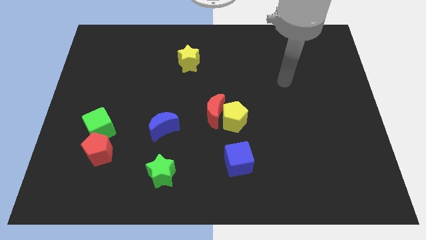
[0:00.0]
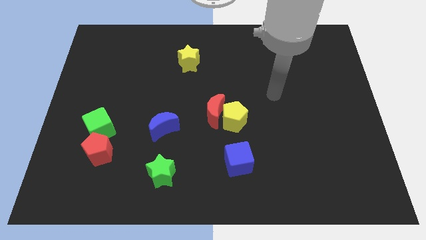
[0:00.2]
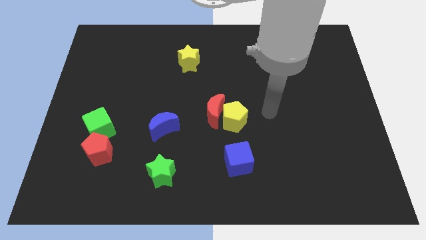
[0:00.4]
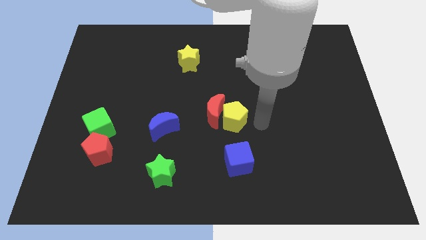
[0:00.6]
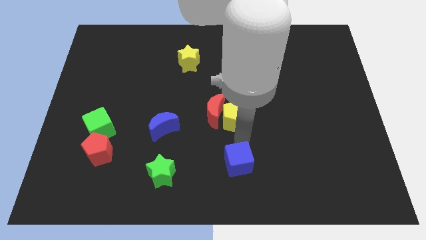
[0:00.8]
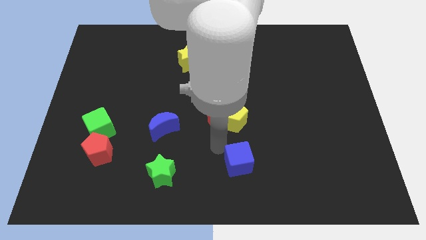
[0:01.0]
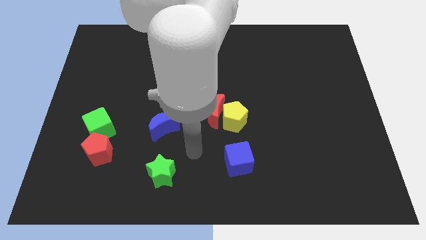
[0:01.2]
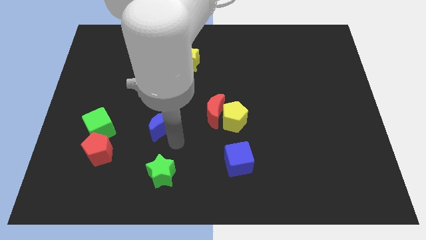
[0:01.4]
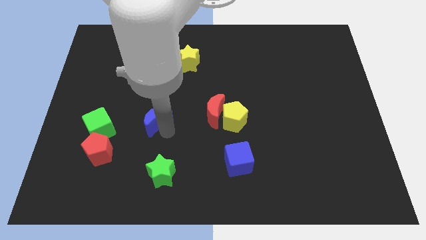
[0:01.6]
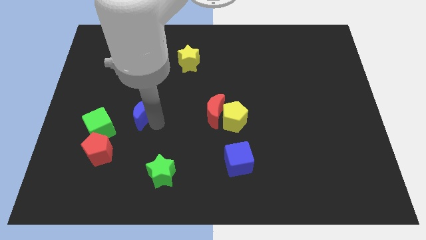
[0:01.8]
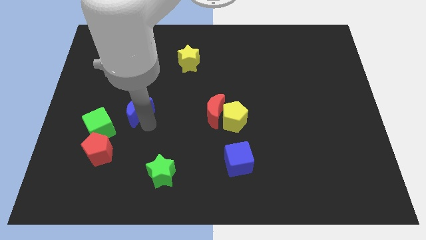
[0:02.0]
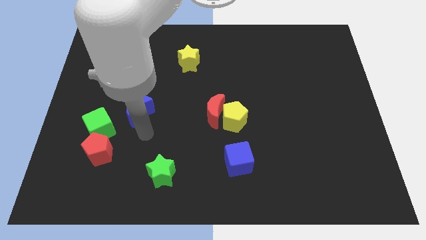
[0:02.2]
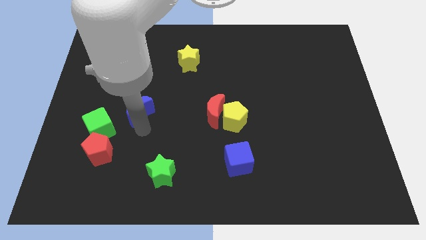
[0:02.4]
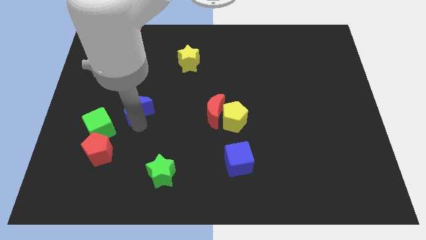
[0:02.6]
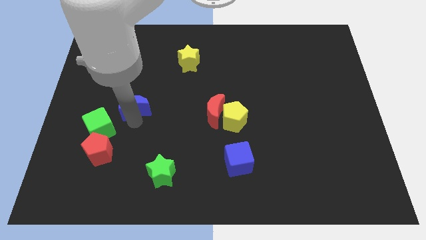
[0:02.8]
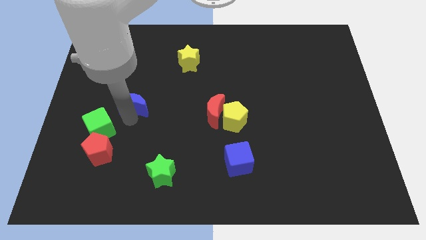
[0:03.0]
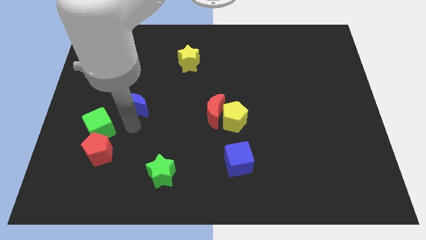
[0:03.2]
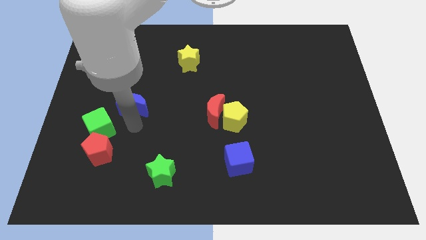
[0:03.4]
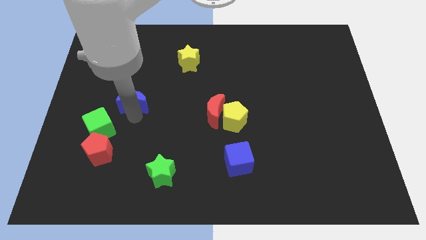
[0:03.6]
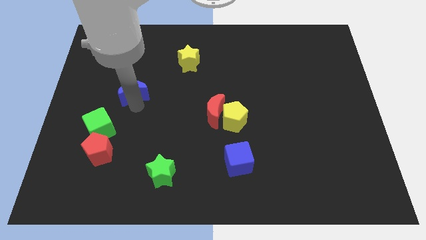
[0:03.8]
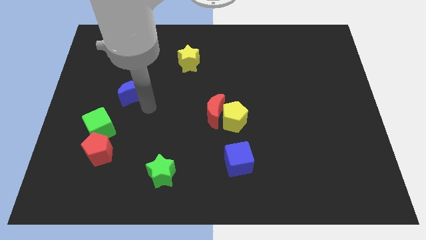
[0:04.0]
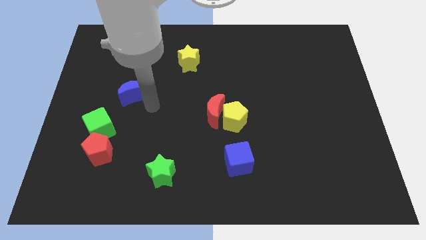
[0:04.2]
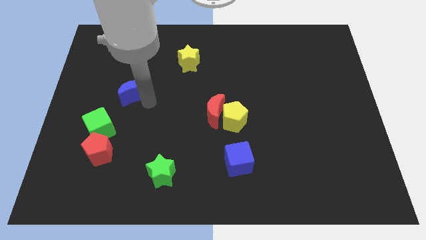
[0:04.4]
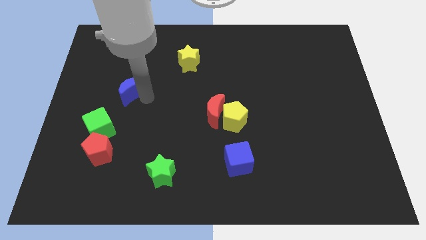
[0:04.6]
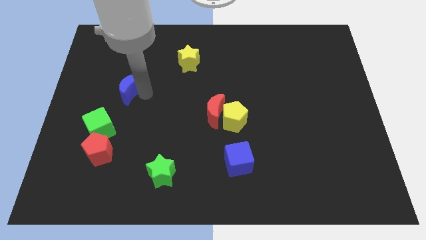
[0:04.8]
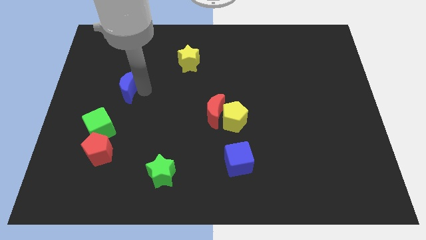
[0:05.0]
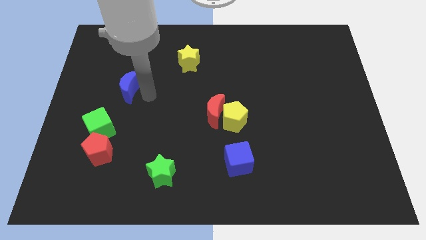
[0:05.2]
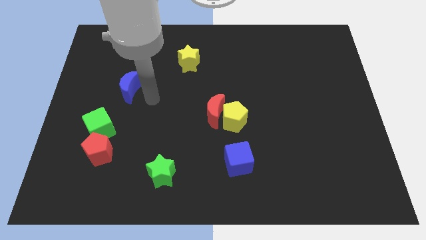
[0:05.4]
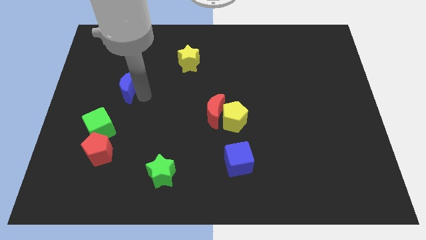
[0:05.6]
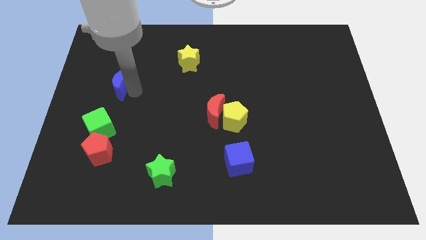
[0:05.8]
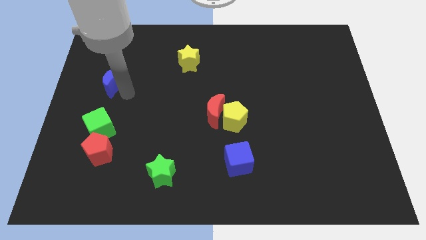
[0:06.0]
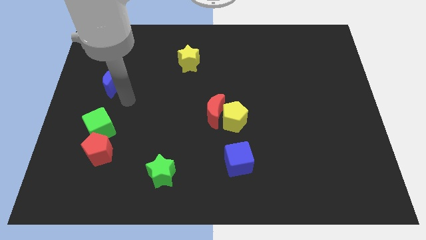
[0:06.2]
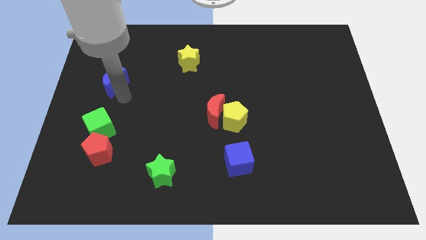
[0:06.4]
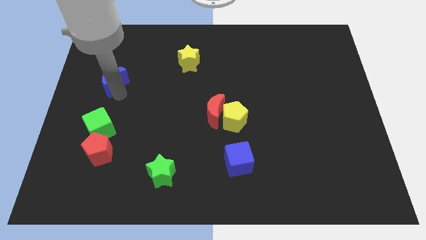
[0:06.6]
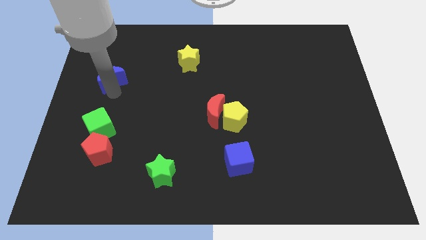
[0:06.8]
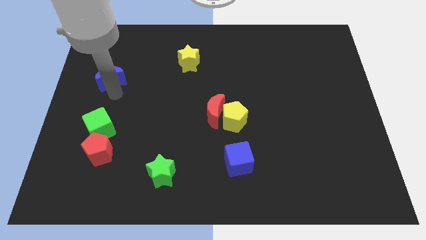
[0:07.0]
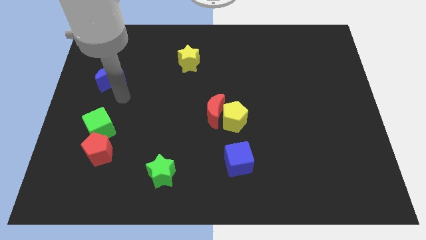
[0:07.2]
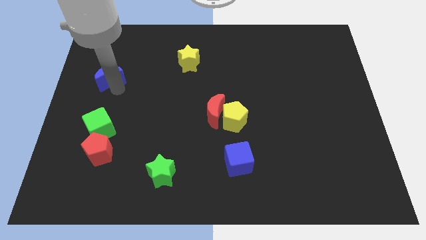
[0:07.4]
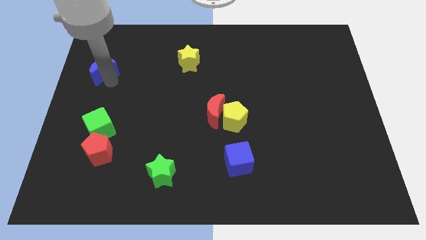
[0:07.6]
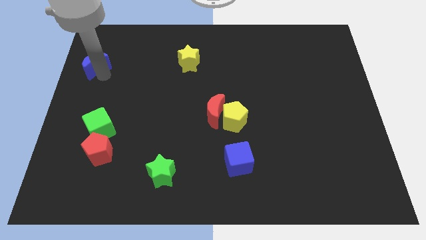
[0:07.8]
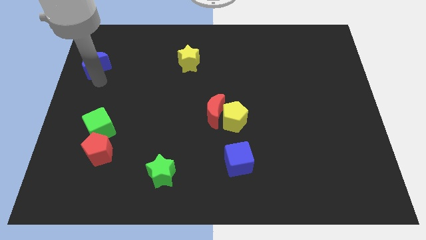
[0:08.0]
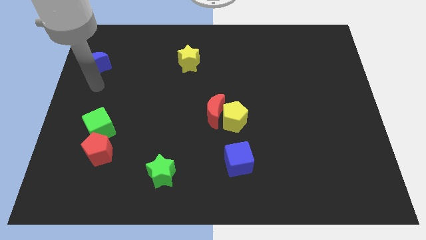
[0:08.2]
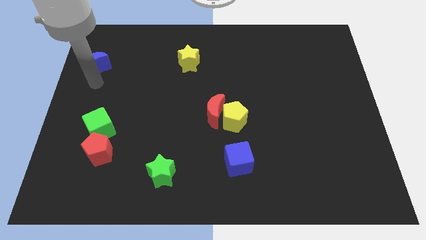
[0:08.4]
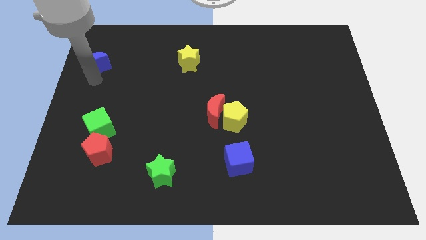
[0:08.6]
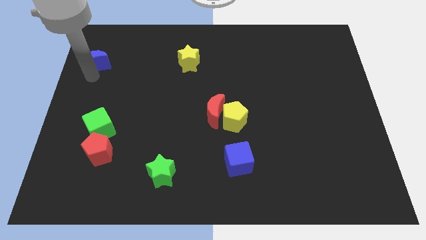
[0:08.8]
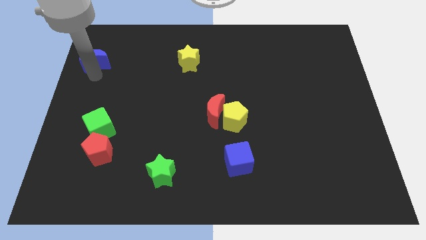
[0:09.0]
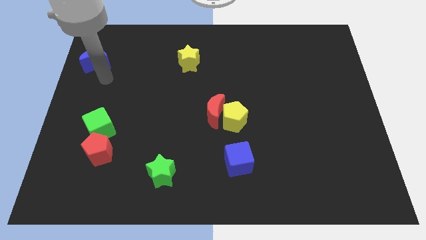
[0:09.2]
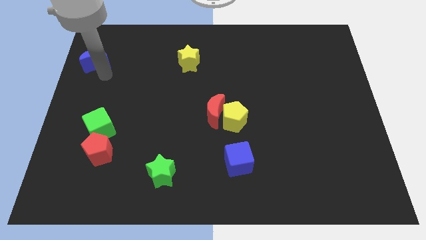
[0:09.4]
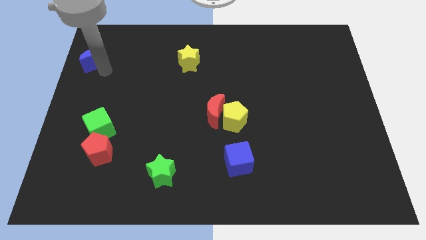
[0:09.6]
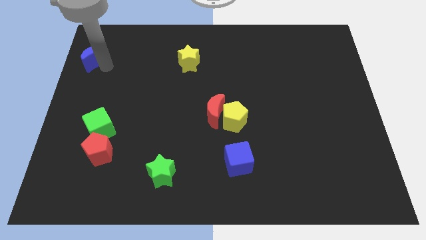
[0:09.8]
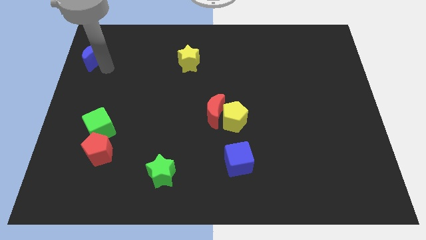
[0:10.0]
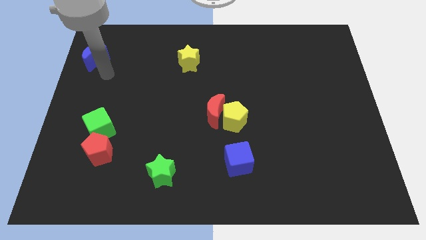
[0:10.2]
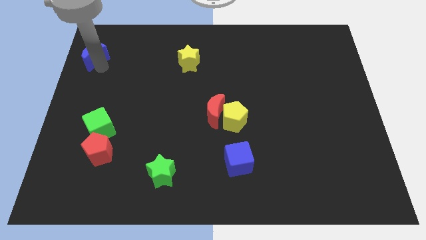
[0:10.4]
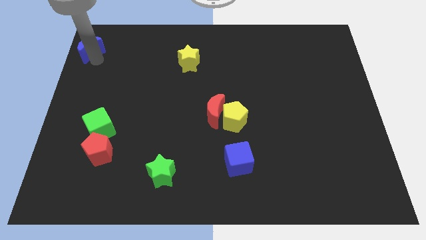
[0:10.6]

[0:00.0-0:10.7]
slide the blue moon to the top left

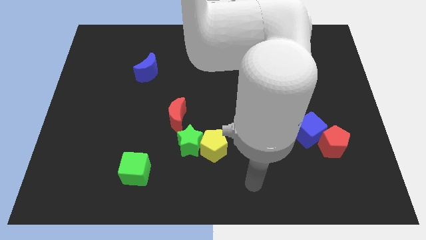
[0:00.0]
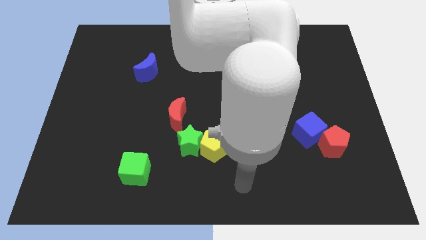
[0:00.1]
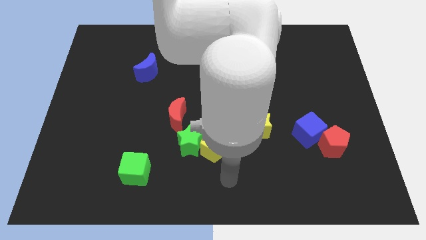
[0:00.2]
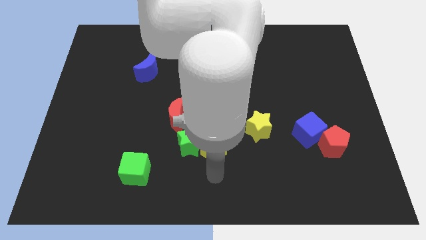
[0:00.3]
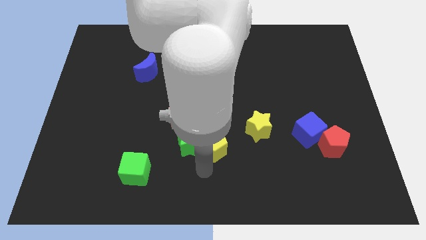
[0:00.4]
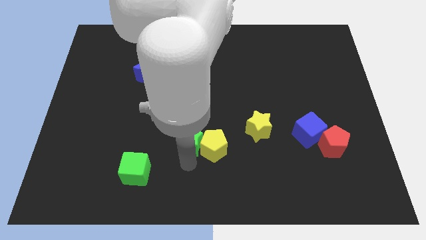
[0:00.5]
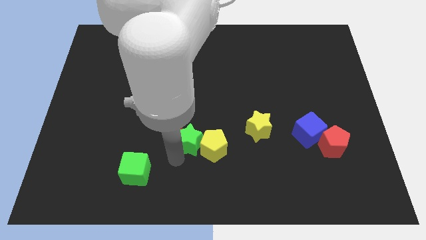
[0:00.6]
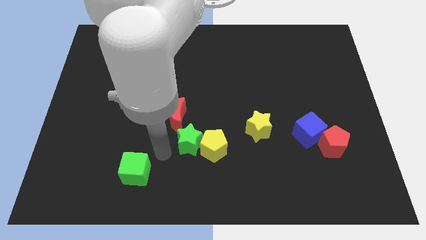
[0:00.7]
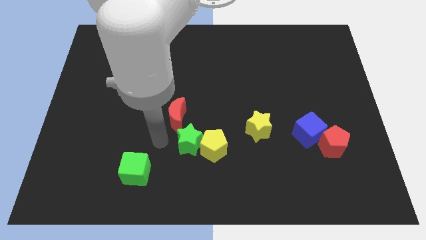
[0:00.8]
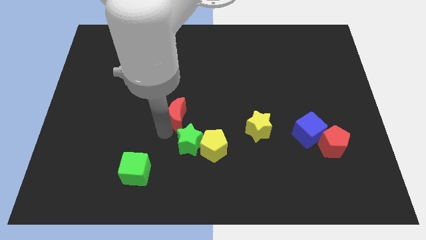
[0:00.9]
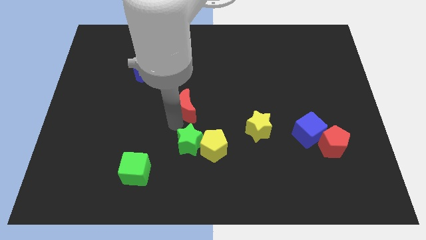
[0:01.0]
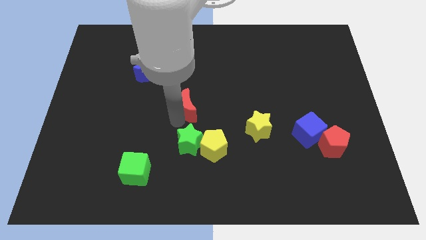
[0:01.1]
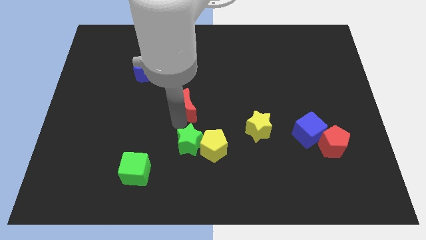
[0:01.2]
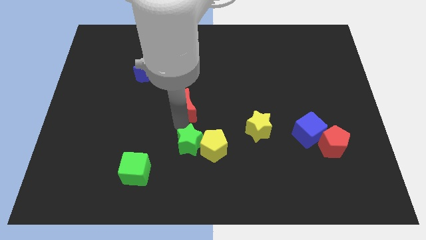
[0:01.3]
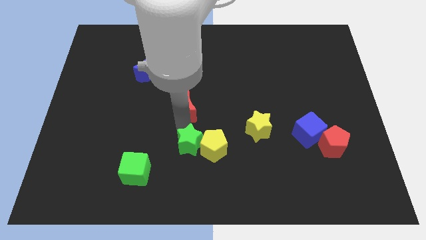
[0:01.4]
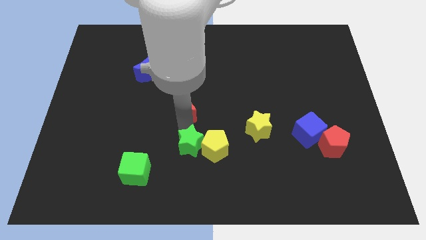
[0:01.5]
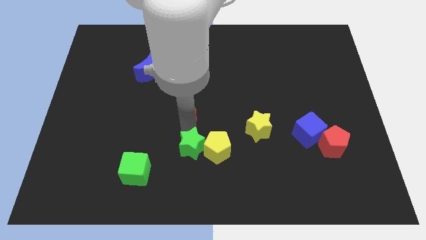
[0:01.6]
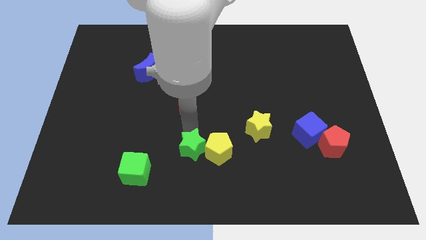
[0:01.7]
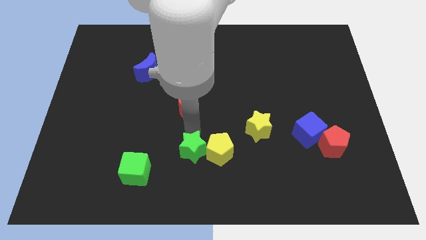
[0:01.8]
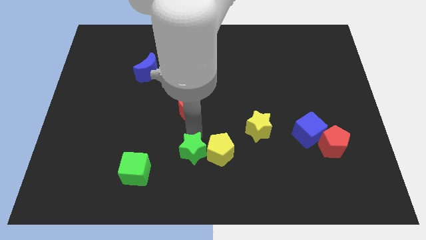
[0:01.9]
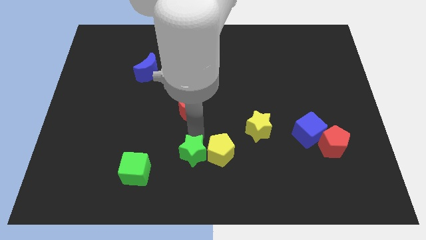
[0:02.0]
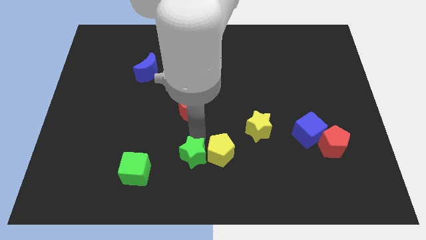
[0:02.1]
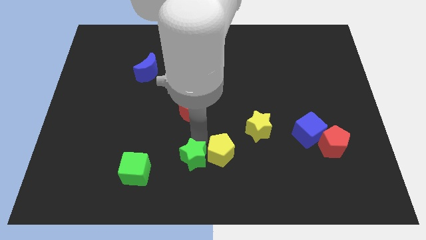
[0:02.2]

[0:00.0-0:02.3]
put the green star to the bottom side
